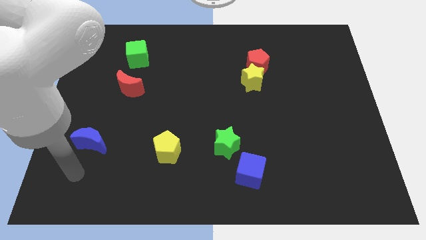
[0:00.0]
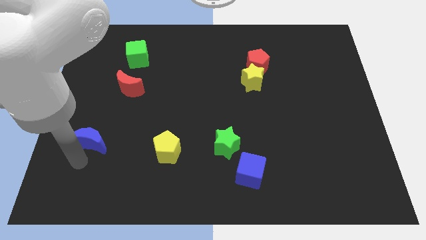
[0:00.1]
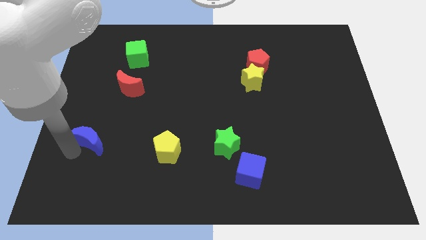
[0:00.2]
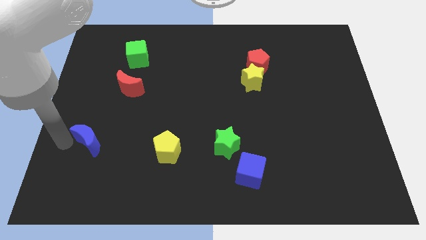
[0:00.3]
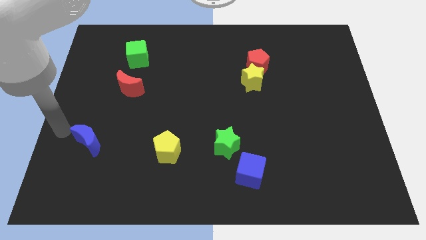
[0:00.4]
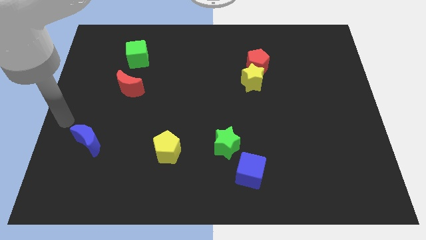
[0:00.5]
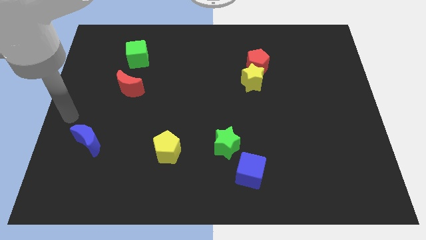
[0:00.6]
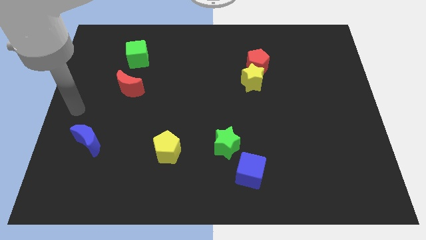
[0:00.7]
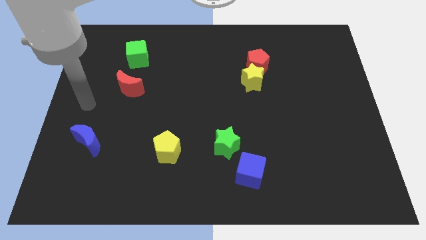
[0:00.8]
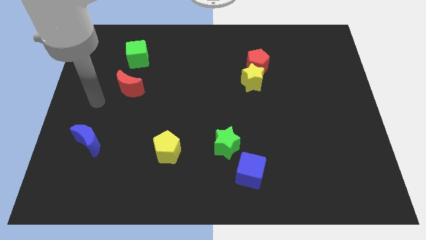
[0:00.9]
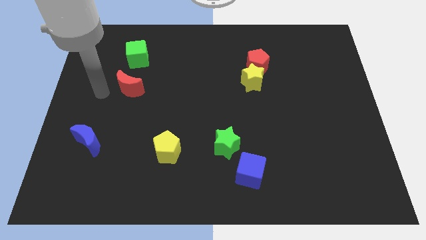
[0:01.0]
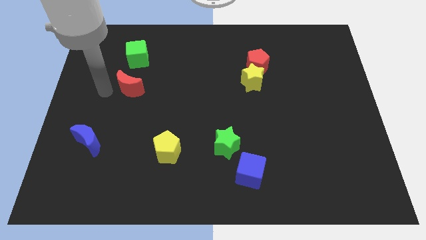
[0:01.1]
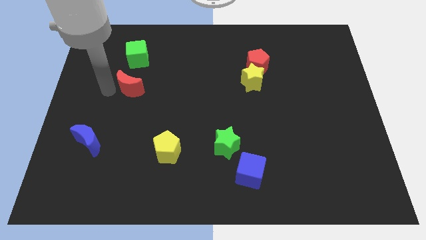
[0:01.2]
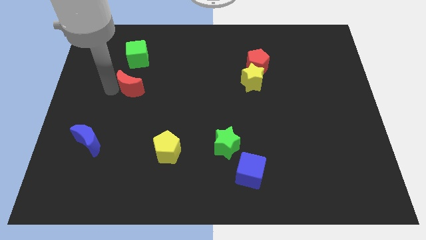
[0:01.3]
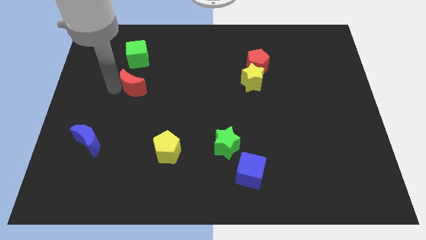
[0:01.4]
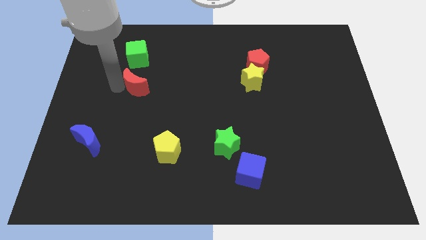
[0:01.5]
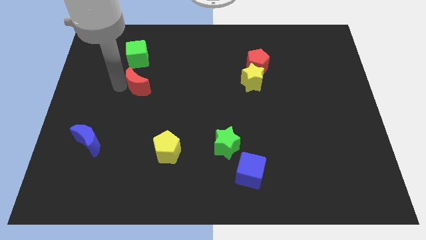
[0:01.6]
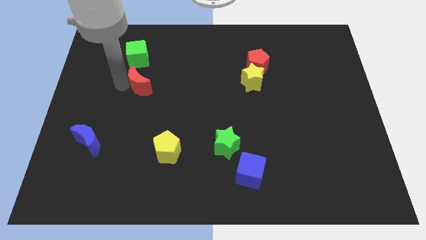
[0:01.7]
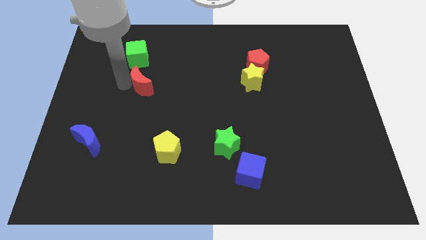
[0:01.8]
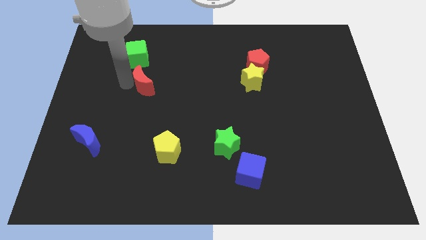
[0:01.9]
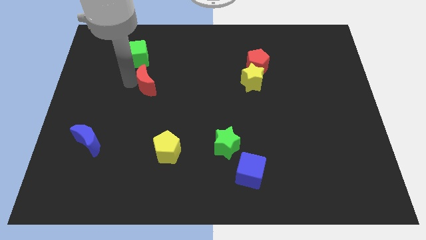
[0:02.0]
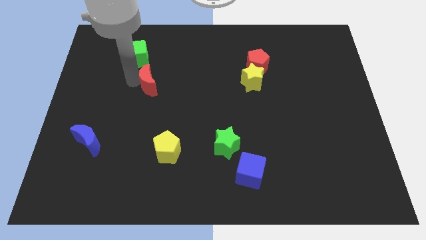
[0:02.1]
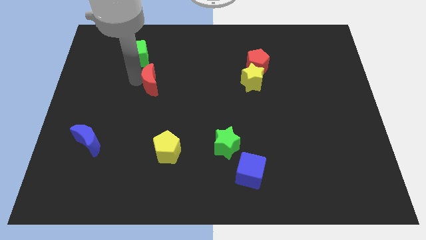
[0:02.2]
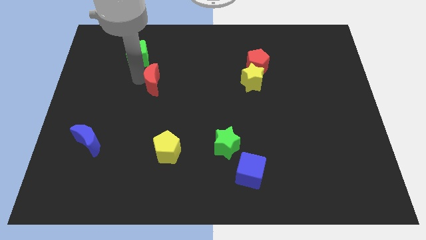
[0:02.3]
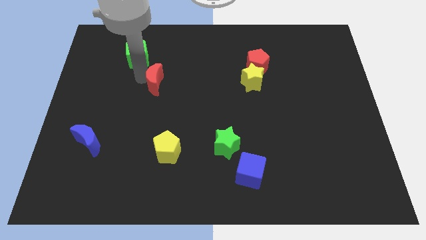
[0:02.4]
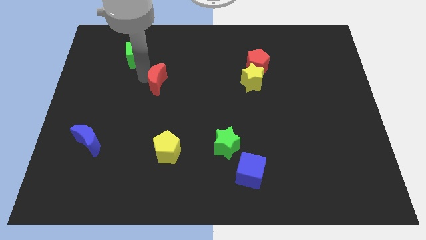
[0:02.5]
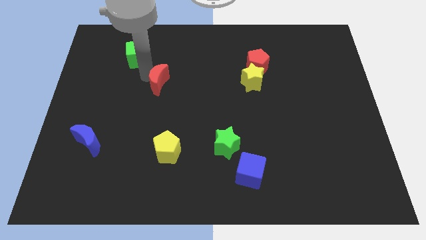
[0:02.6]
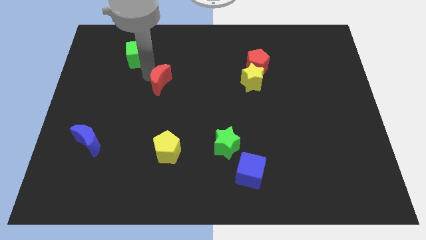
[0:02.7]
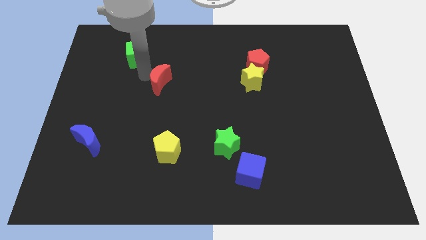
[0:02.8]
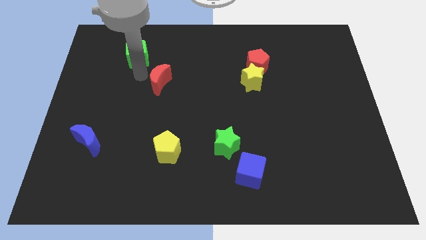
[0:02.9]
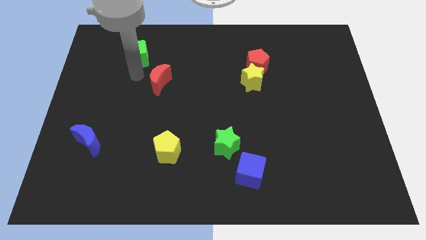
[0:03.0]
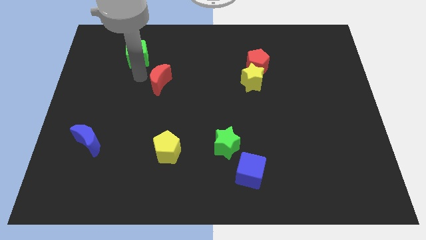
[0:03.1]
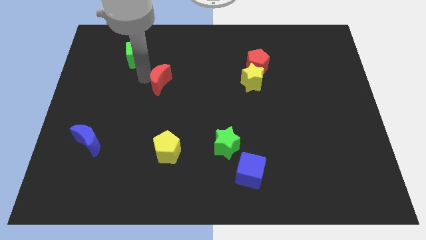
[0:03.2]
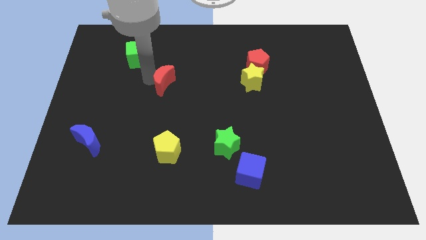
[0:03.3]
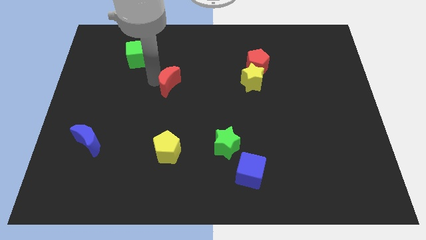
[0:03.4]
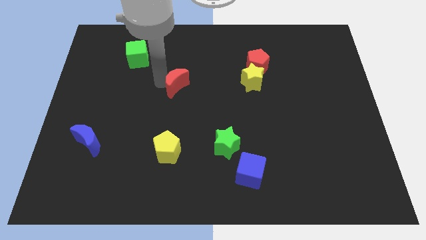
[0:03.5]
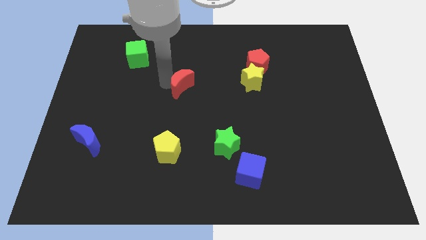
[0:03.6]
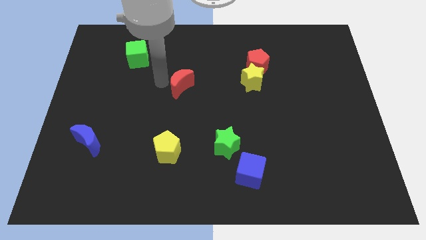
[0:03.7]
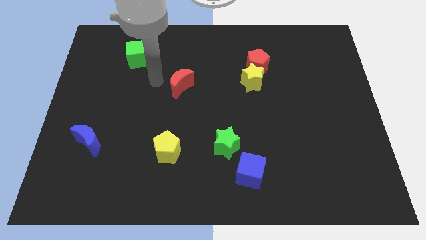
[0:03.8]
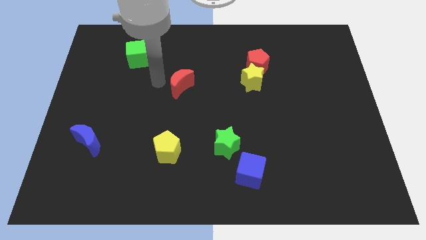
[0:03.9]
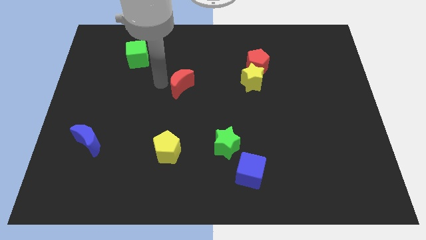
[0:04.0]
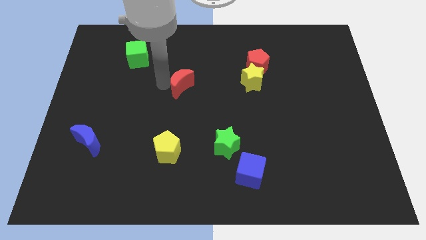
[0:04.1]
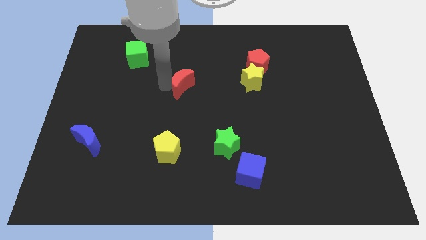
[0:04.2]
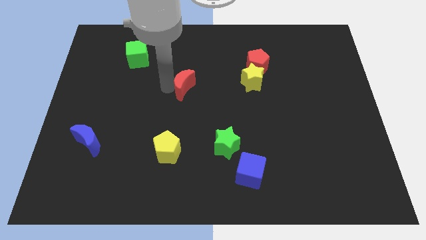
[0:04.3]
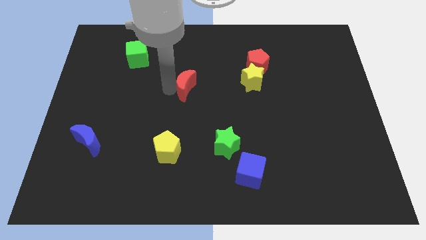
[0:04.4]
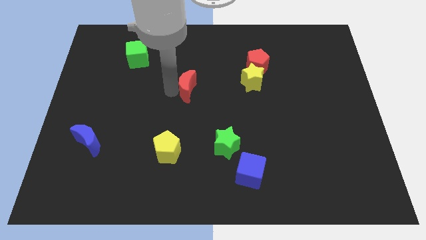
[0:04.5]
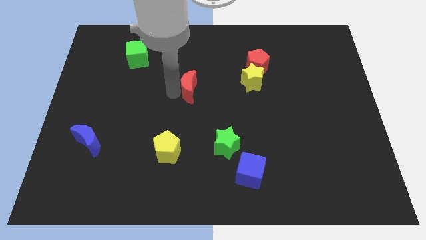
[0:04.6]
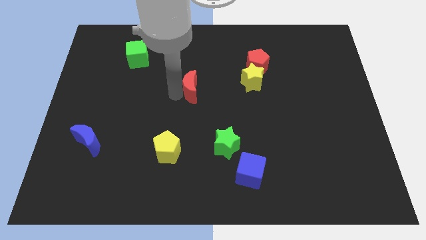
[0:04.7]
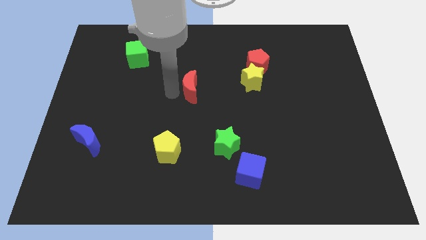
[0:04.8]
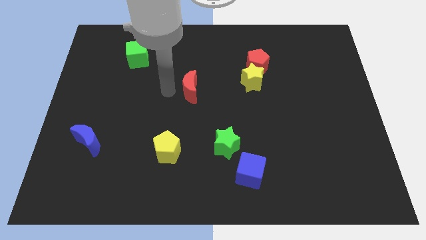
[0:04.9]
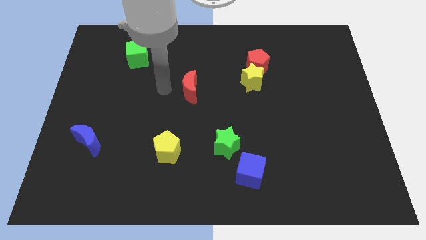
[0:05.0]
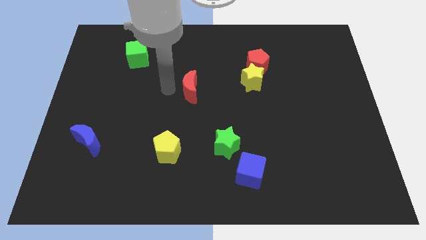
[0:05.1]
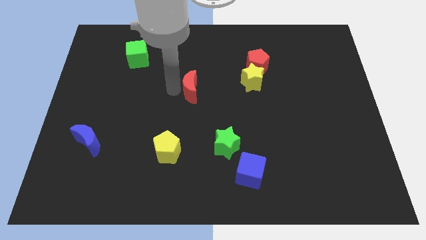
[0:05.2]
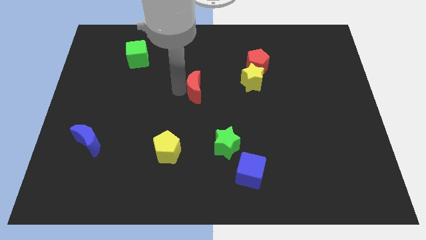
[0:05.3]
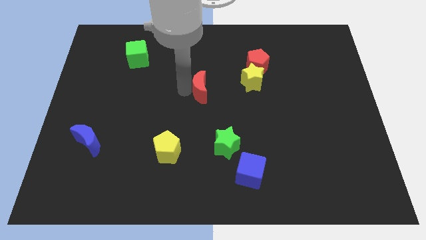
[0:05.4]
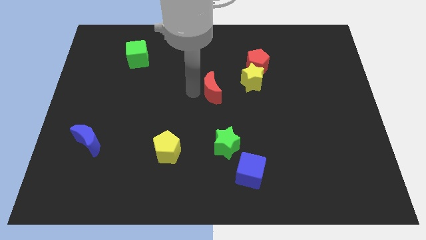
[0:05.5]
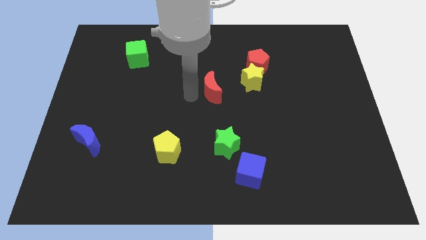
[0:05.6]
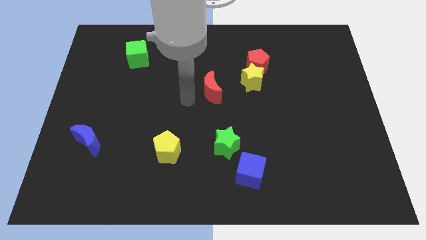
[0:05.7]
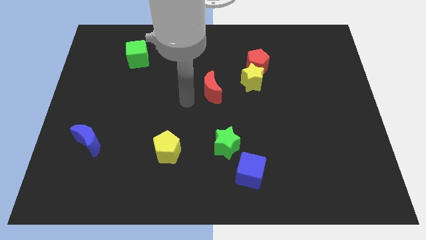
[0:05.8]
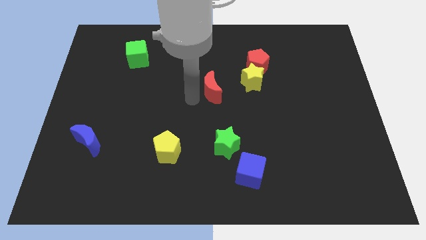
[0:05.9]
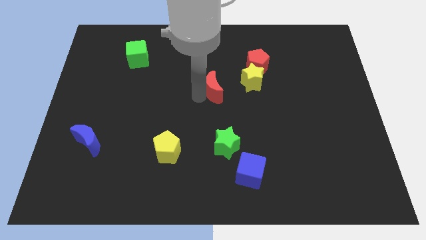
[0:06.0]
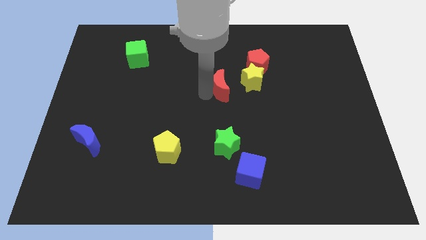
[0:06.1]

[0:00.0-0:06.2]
move the red moon diagonally down and to the left of the red pentagon
